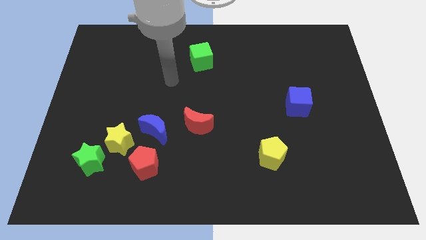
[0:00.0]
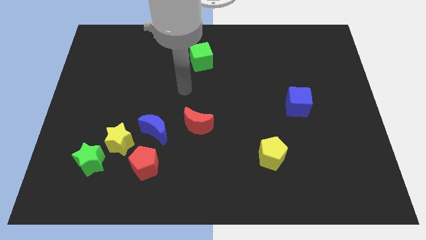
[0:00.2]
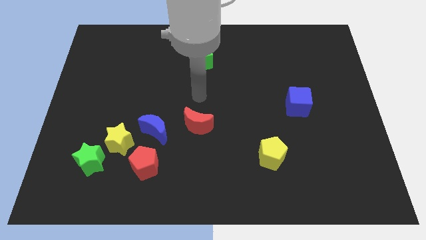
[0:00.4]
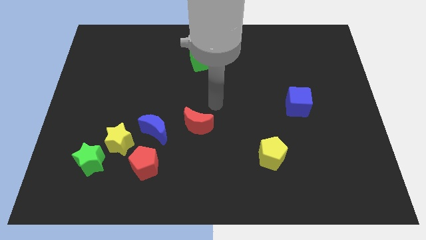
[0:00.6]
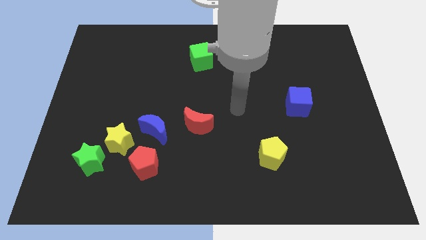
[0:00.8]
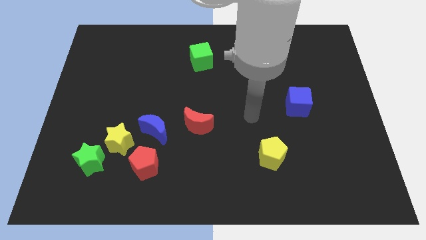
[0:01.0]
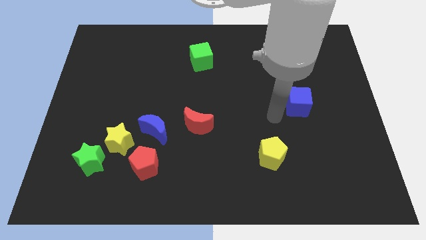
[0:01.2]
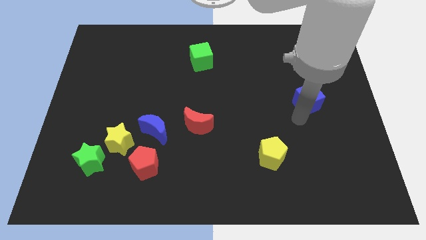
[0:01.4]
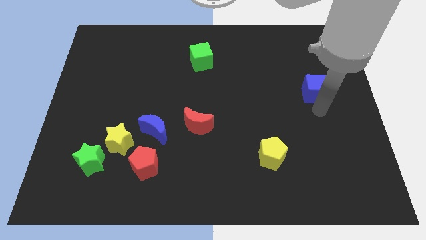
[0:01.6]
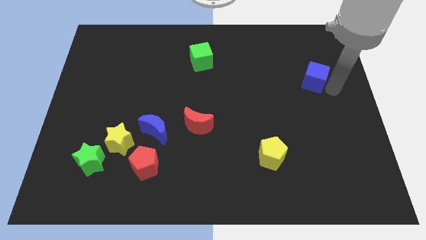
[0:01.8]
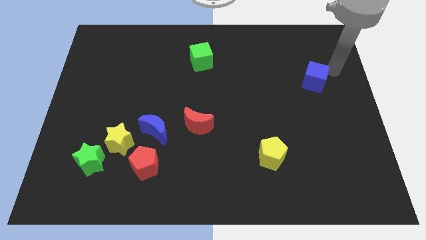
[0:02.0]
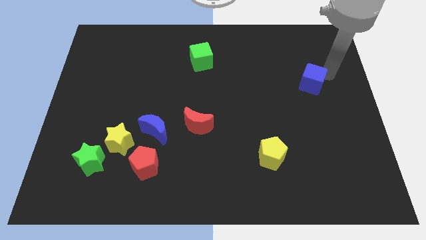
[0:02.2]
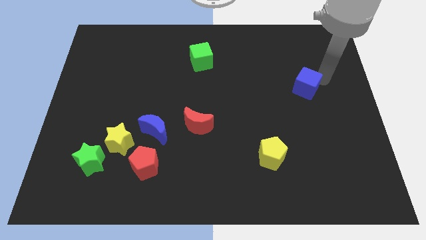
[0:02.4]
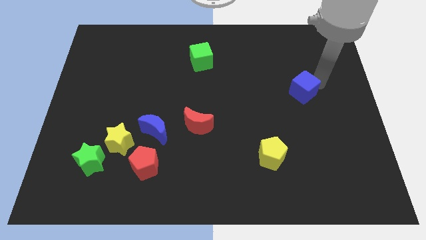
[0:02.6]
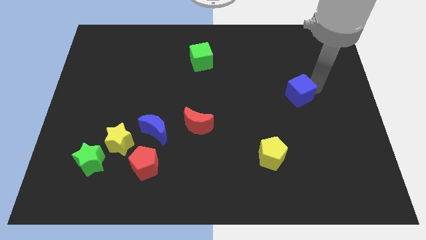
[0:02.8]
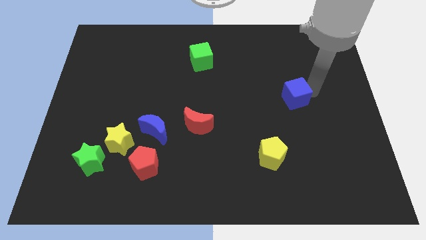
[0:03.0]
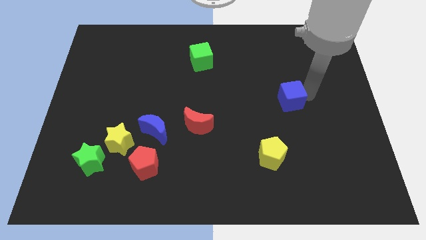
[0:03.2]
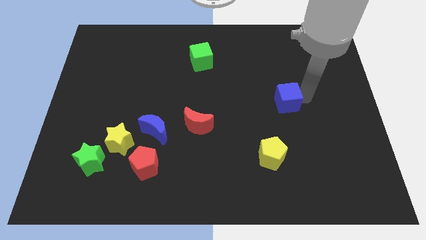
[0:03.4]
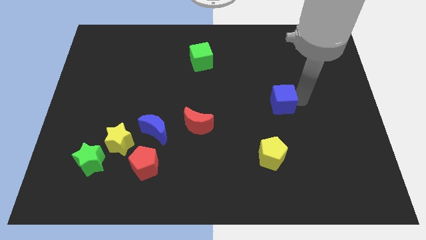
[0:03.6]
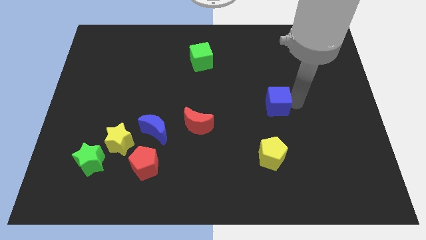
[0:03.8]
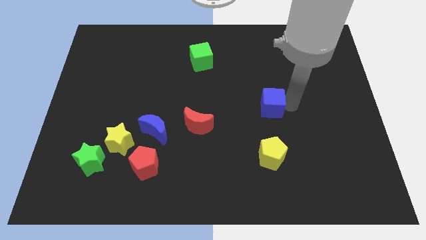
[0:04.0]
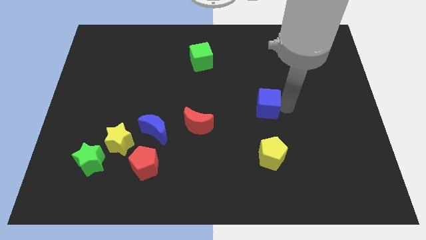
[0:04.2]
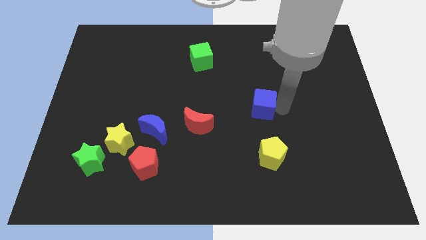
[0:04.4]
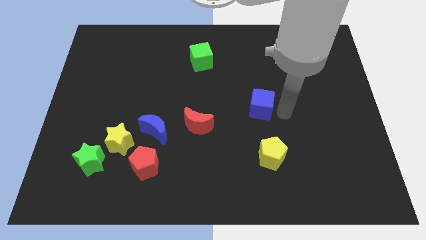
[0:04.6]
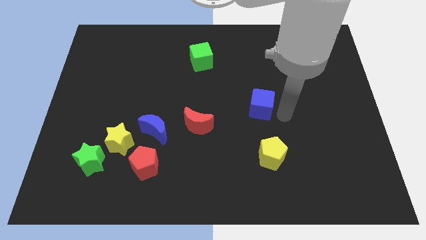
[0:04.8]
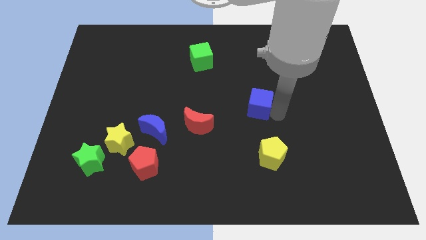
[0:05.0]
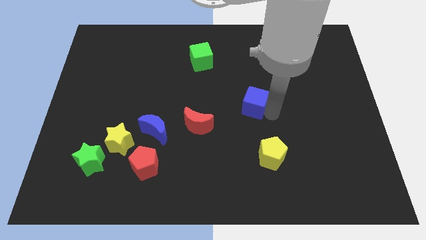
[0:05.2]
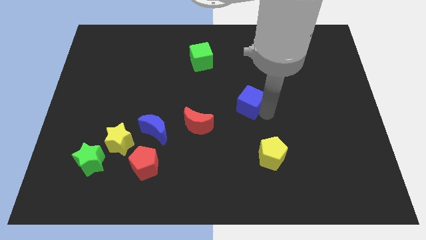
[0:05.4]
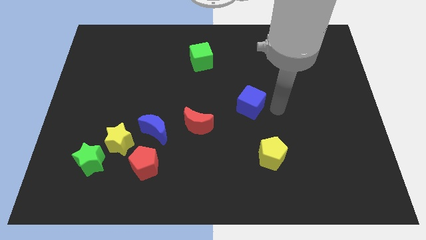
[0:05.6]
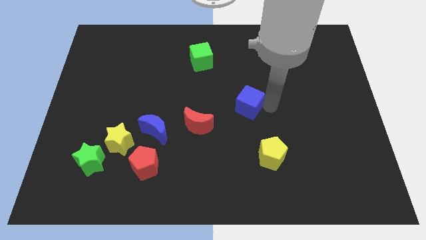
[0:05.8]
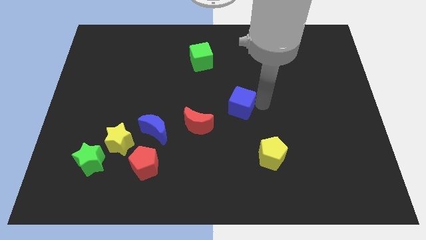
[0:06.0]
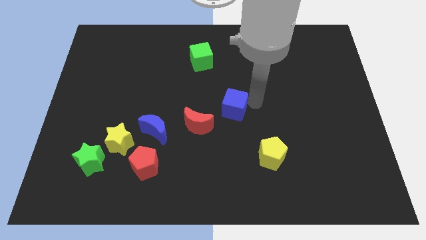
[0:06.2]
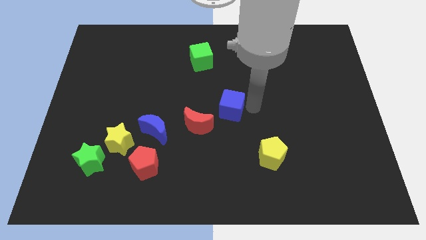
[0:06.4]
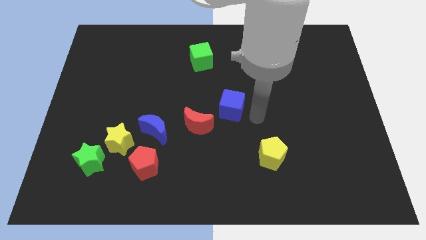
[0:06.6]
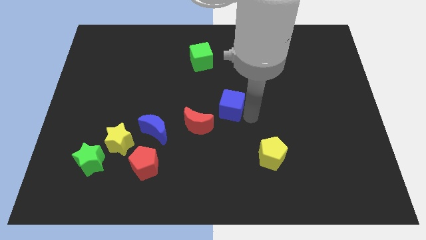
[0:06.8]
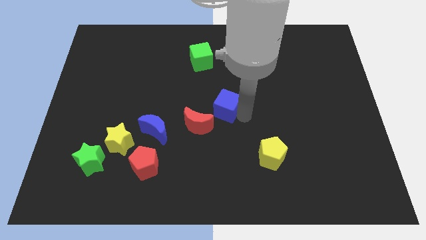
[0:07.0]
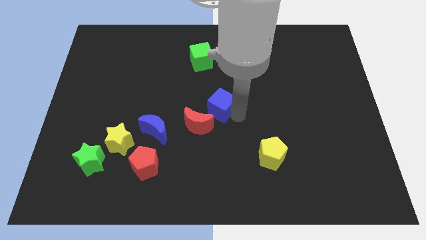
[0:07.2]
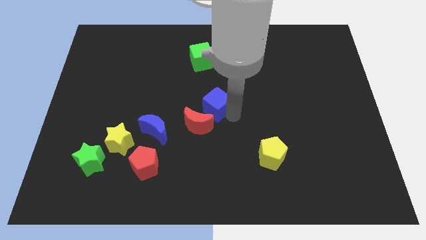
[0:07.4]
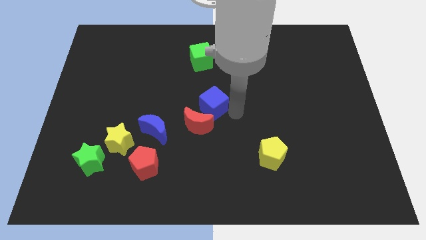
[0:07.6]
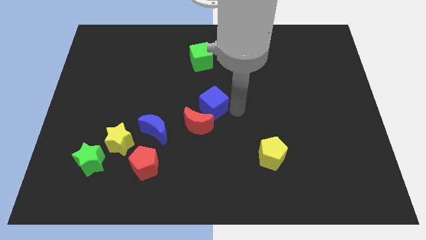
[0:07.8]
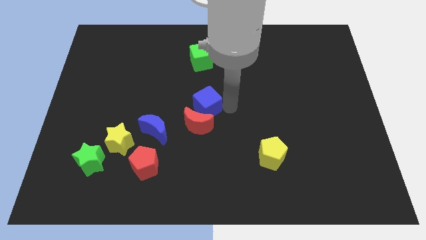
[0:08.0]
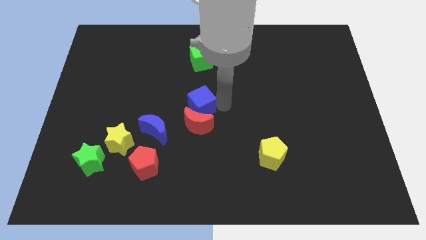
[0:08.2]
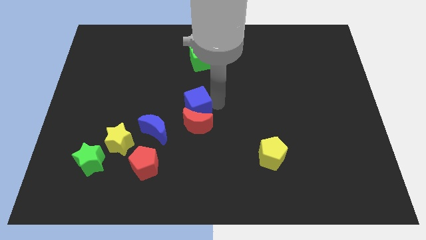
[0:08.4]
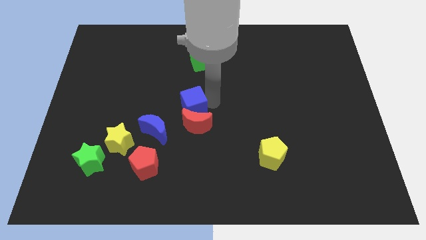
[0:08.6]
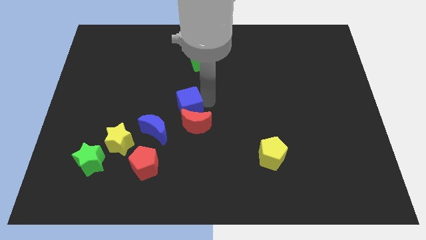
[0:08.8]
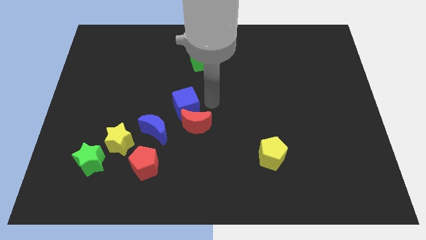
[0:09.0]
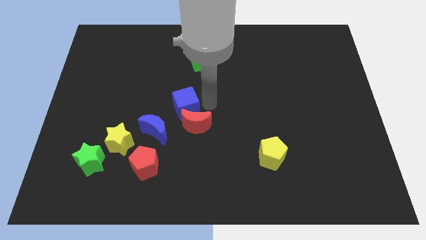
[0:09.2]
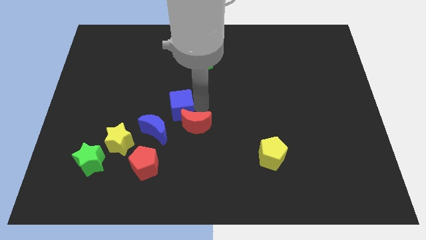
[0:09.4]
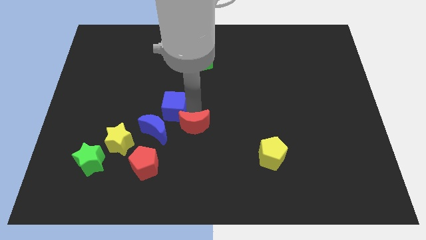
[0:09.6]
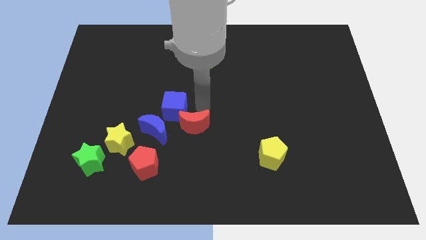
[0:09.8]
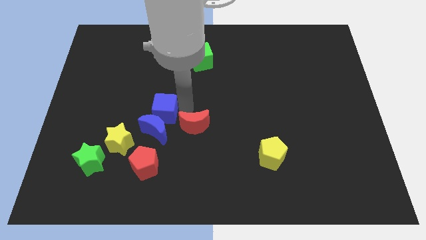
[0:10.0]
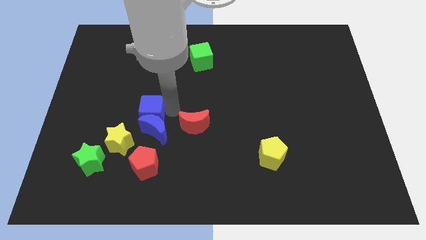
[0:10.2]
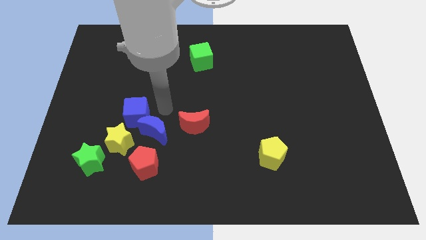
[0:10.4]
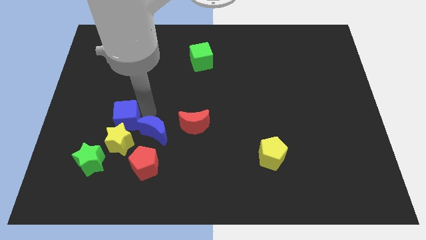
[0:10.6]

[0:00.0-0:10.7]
move the blue cube to the top left side of the yellow star

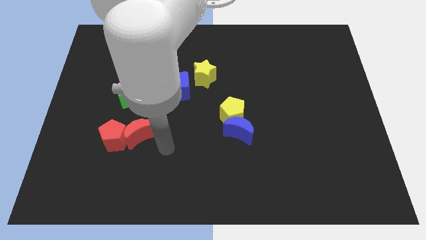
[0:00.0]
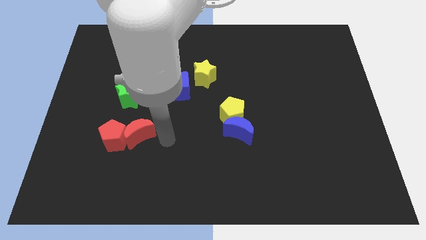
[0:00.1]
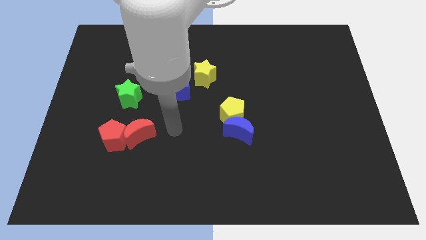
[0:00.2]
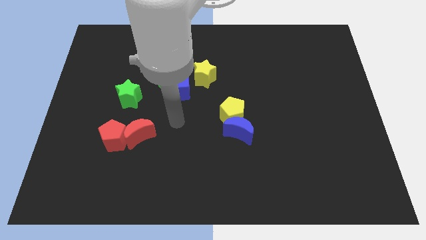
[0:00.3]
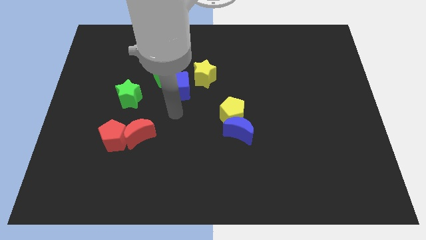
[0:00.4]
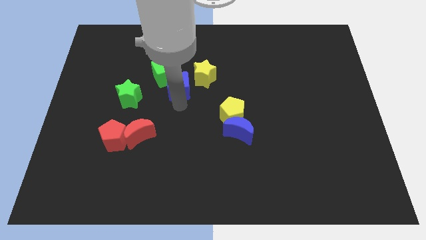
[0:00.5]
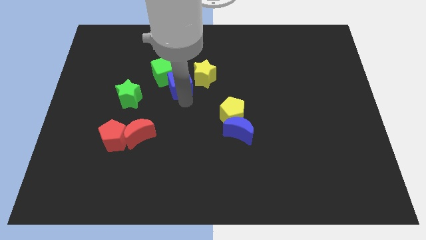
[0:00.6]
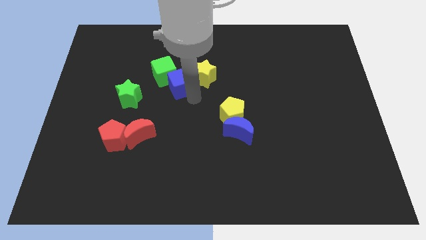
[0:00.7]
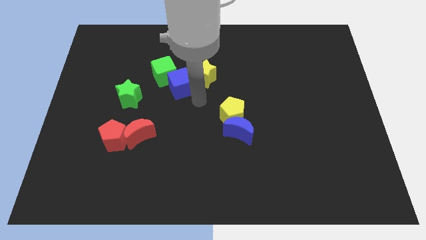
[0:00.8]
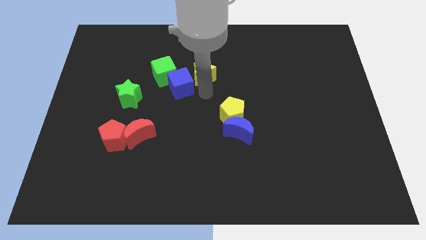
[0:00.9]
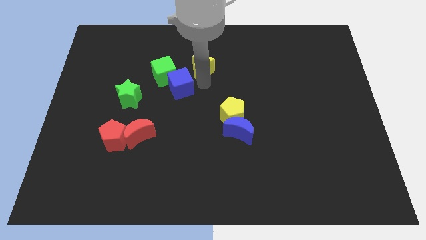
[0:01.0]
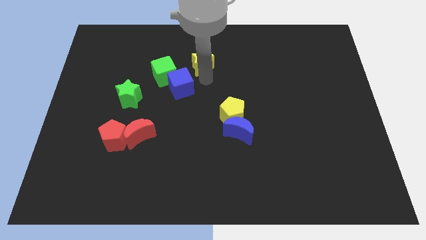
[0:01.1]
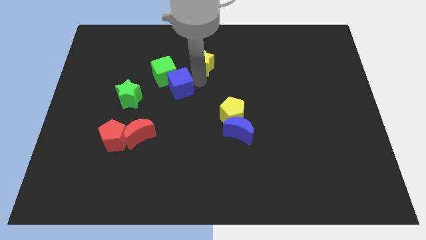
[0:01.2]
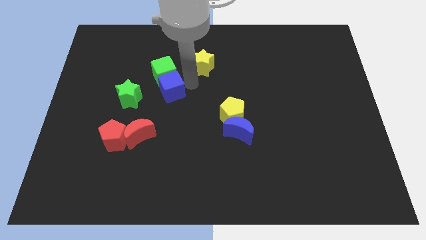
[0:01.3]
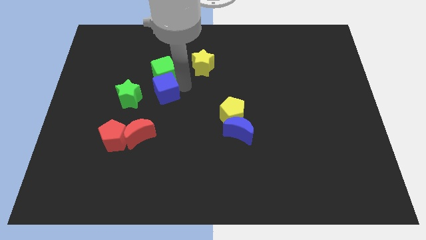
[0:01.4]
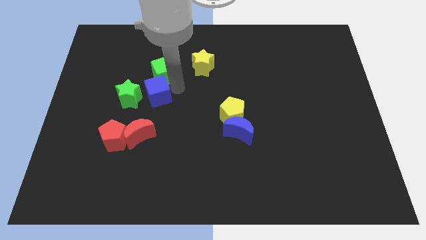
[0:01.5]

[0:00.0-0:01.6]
push the blue cube to the top of the red moon

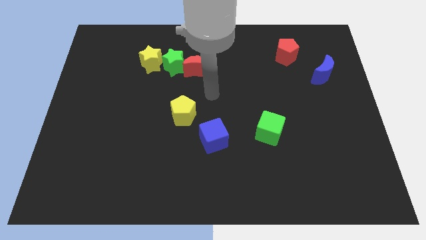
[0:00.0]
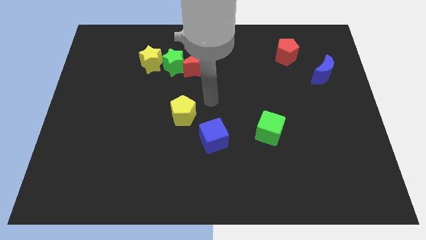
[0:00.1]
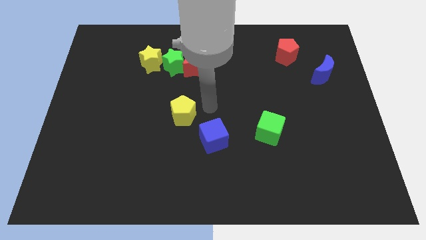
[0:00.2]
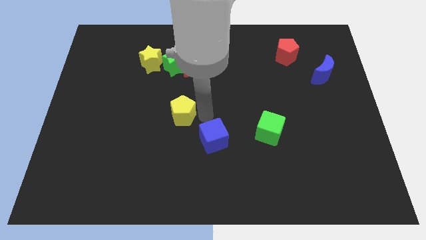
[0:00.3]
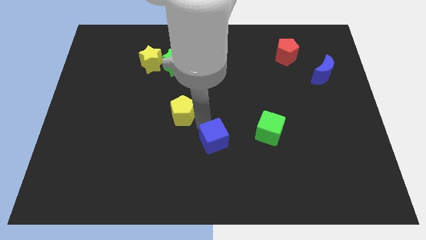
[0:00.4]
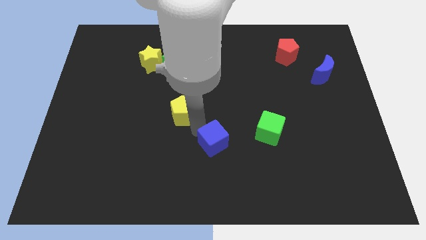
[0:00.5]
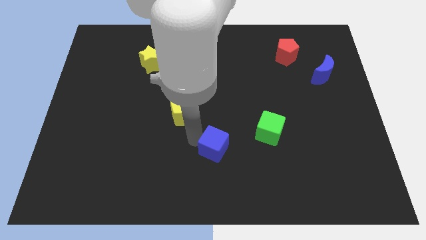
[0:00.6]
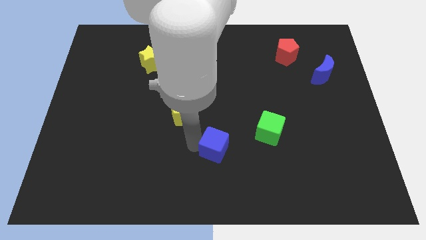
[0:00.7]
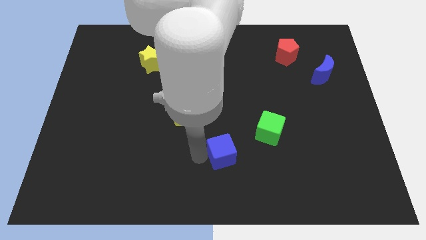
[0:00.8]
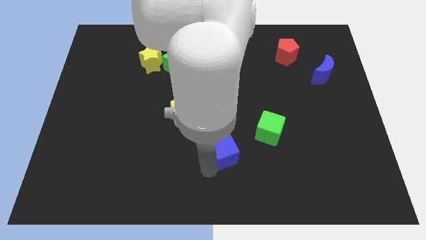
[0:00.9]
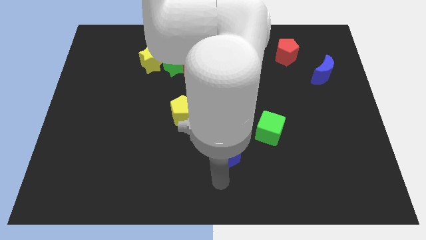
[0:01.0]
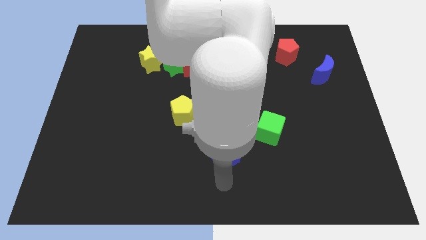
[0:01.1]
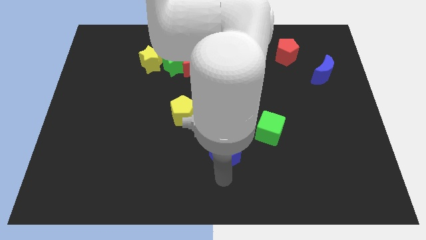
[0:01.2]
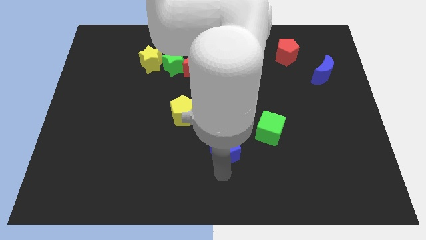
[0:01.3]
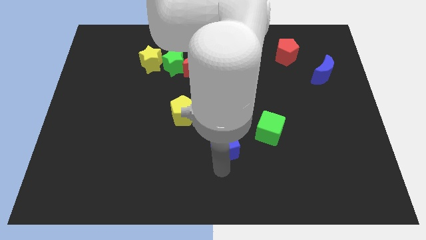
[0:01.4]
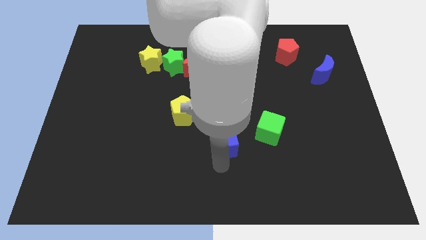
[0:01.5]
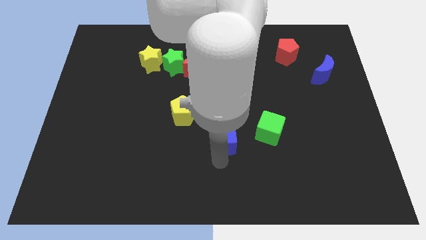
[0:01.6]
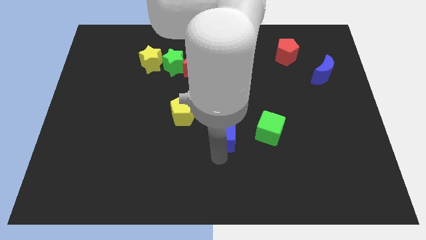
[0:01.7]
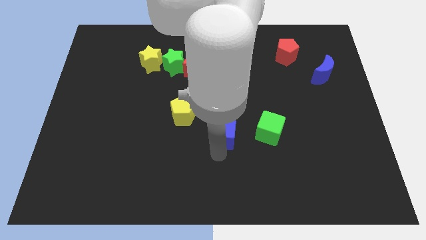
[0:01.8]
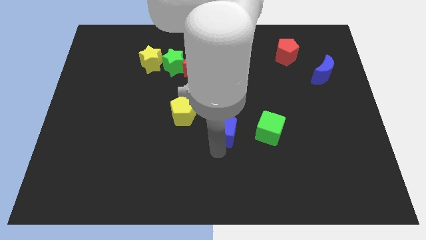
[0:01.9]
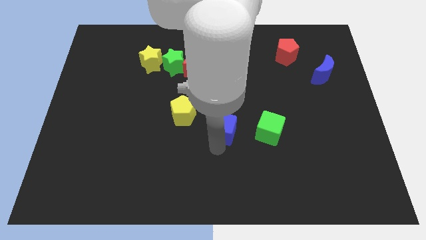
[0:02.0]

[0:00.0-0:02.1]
push the blue cube to the right of the yellow pentagon
